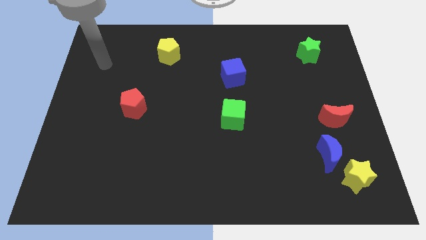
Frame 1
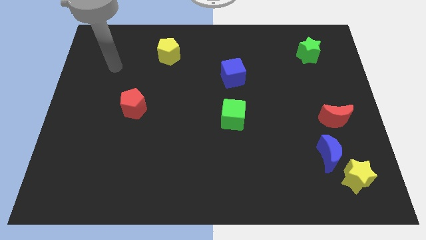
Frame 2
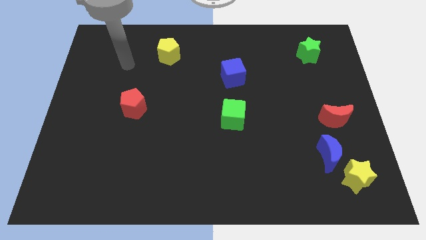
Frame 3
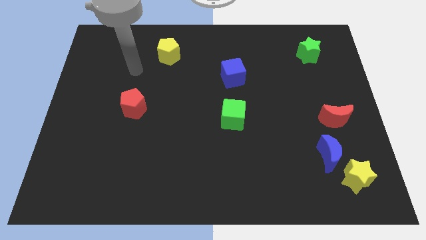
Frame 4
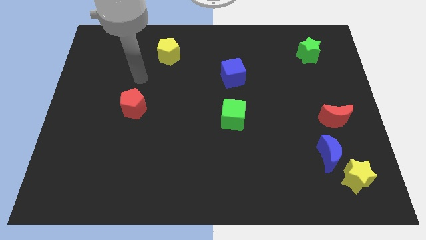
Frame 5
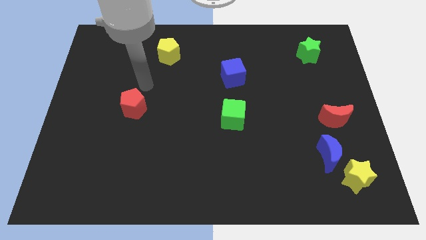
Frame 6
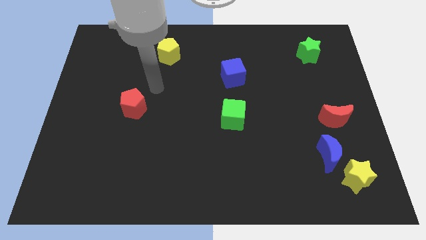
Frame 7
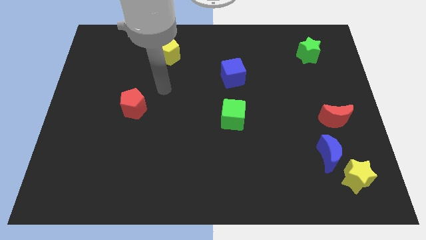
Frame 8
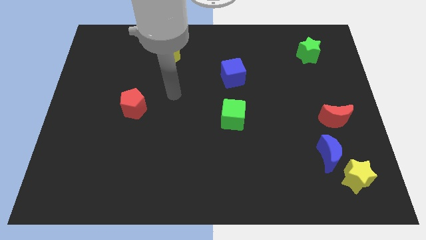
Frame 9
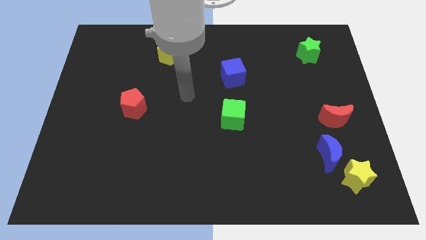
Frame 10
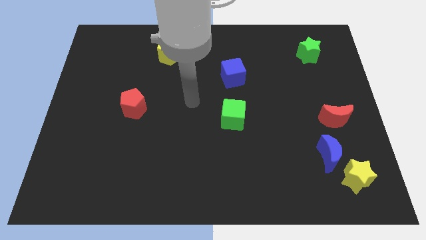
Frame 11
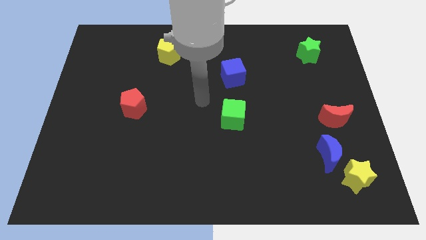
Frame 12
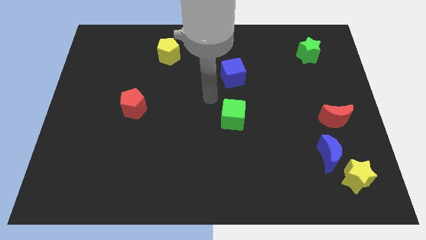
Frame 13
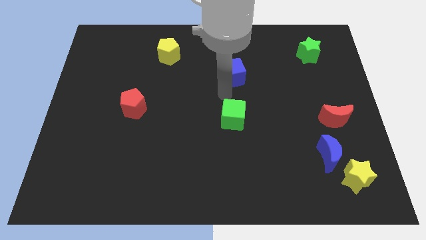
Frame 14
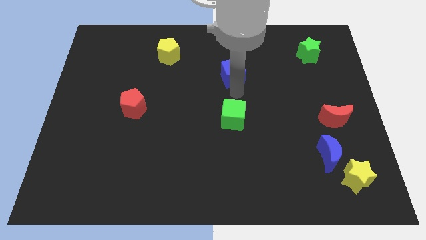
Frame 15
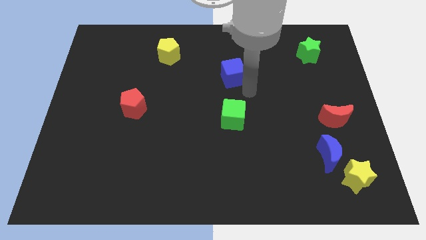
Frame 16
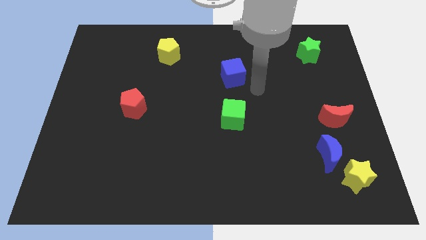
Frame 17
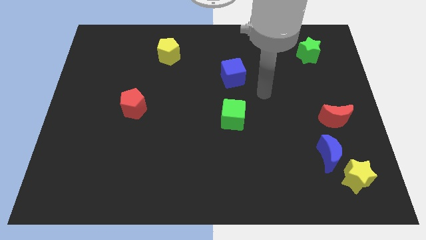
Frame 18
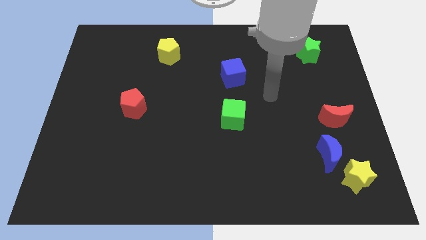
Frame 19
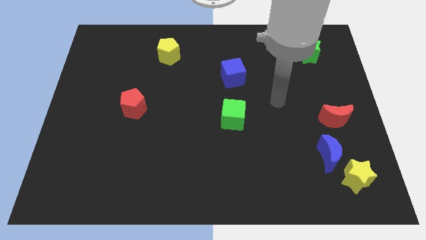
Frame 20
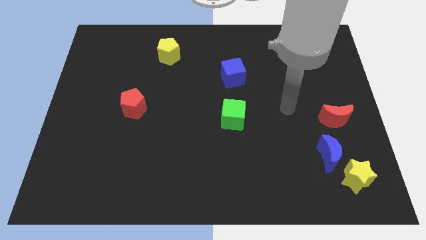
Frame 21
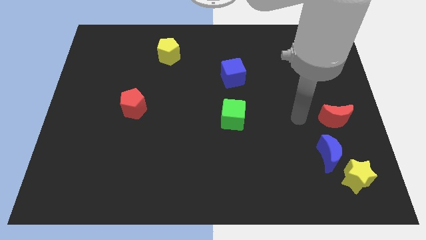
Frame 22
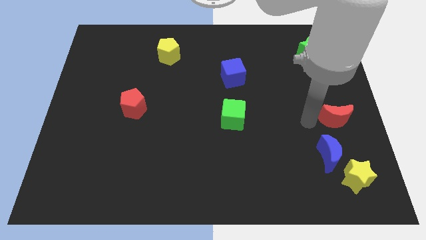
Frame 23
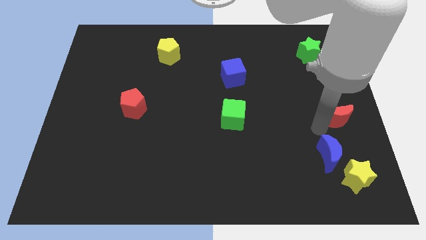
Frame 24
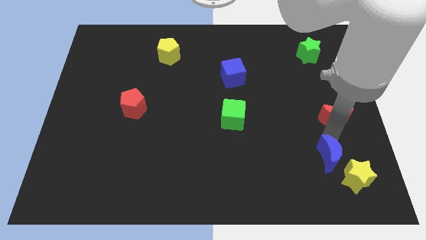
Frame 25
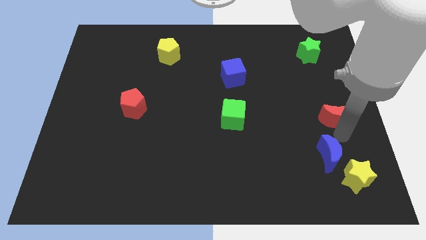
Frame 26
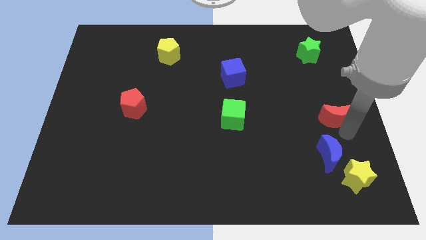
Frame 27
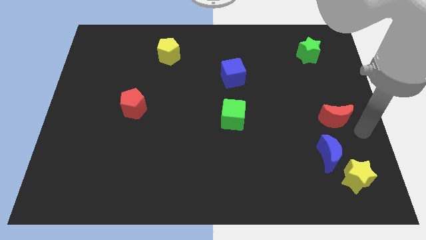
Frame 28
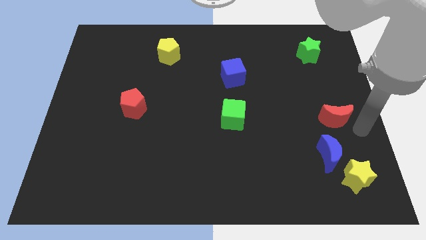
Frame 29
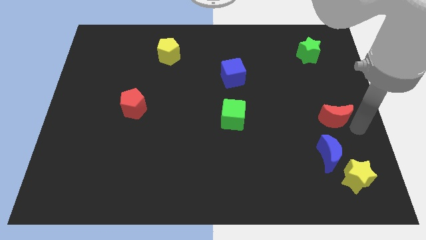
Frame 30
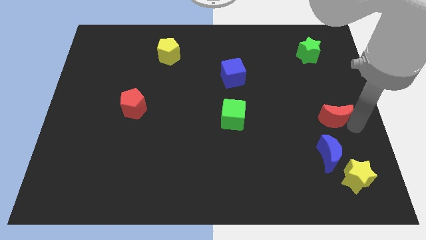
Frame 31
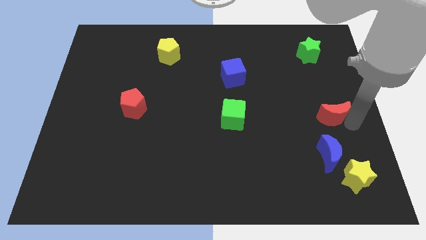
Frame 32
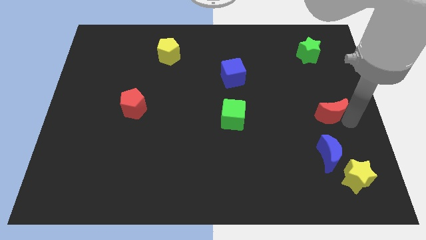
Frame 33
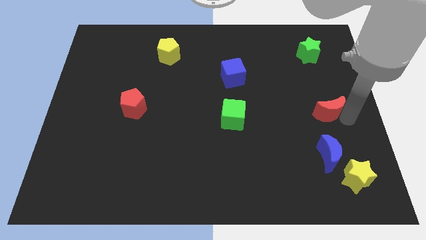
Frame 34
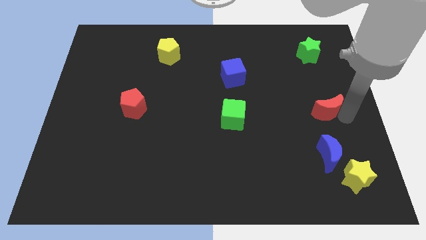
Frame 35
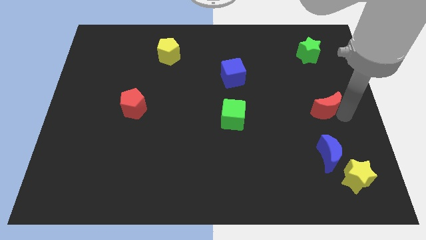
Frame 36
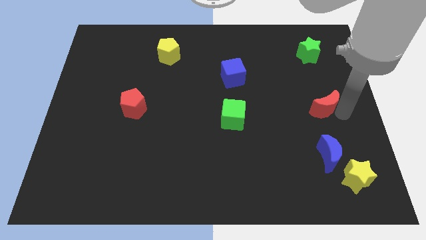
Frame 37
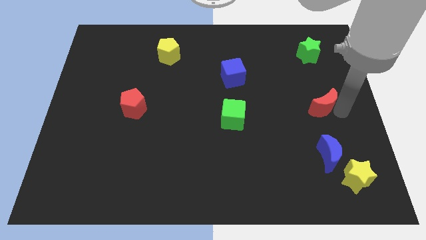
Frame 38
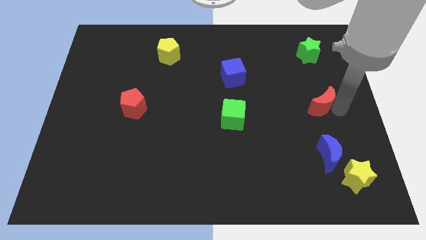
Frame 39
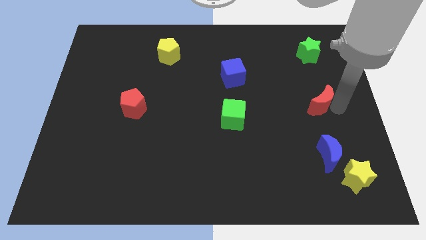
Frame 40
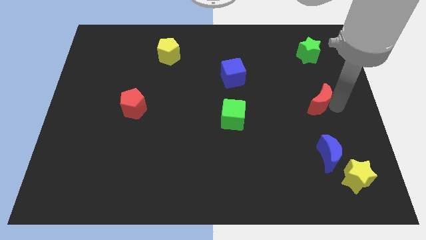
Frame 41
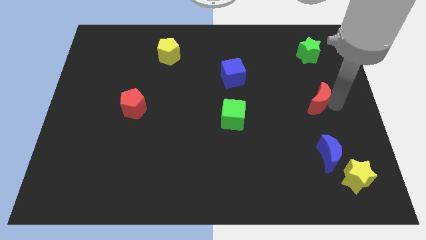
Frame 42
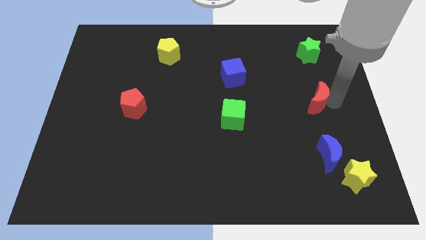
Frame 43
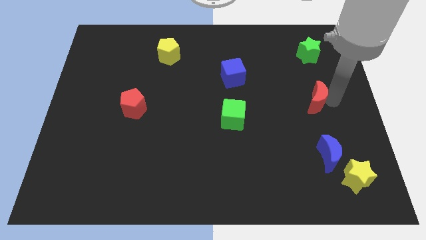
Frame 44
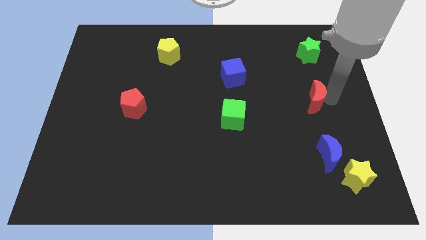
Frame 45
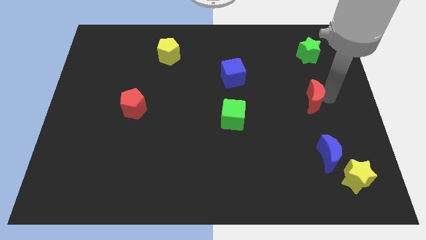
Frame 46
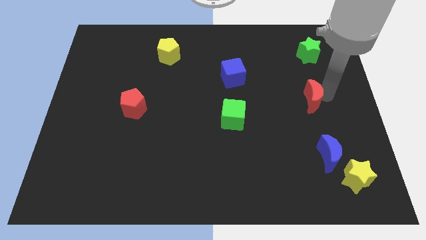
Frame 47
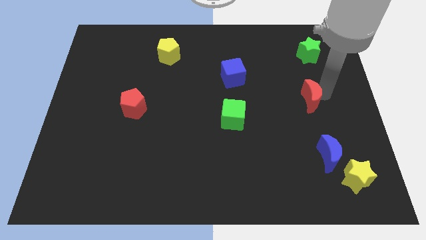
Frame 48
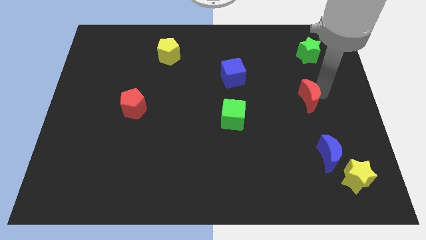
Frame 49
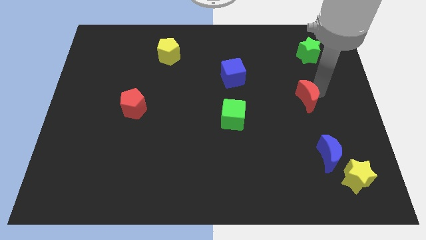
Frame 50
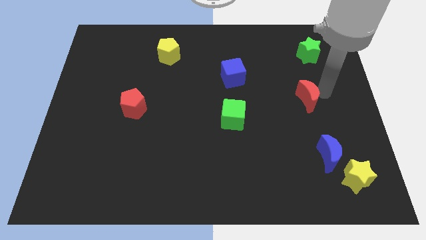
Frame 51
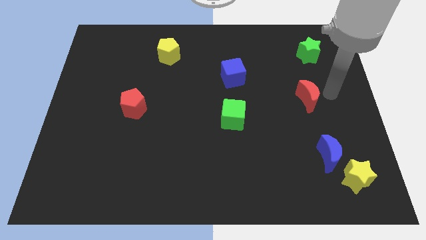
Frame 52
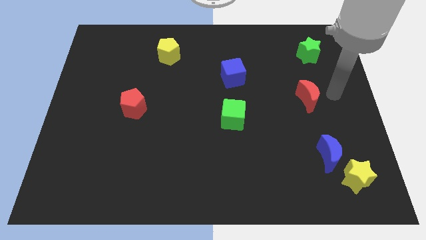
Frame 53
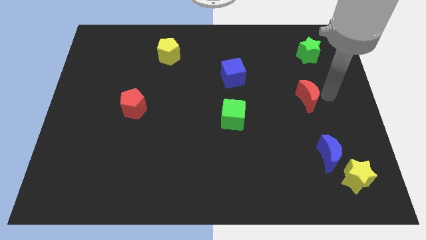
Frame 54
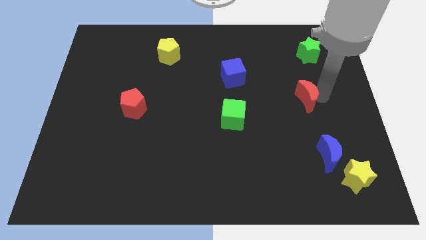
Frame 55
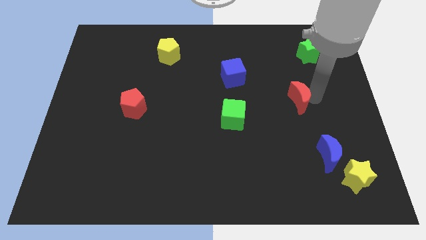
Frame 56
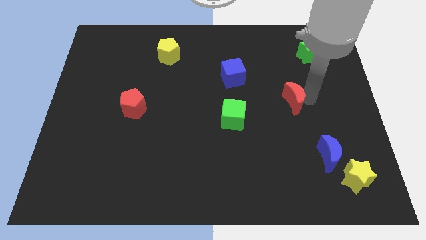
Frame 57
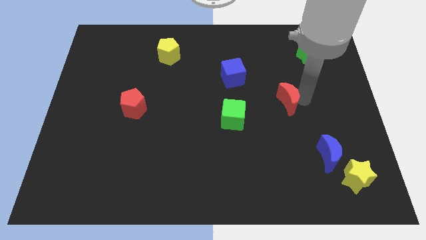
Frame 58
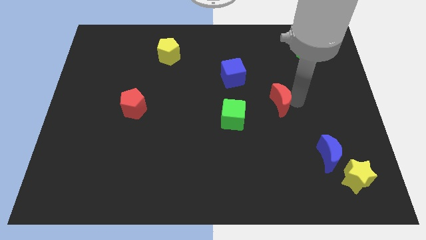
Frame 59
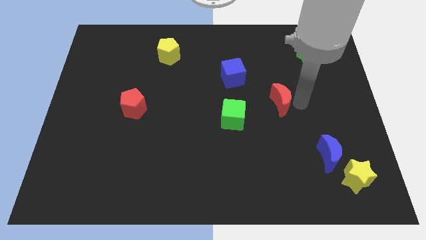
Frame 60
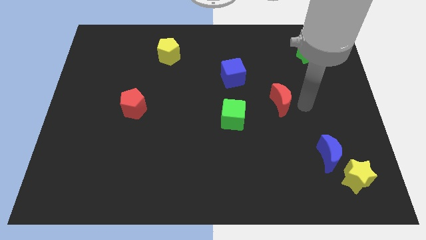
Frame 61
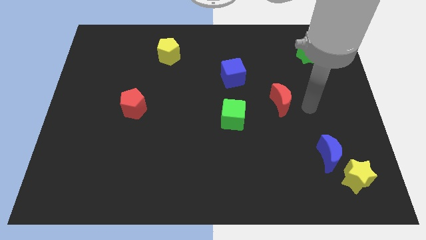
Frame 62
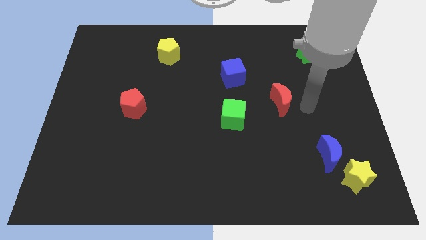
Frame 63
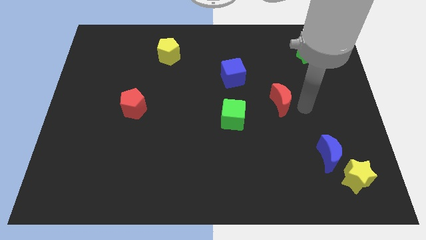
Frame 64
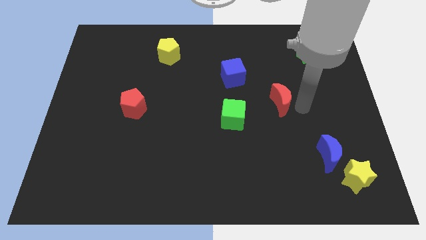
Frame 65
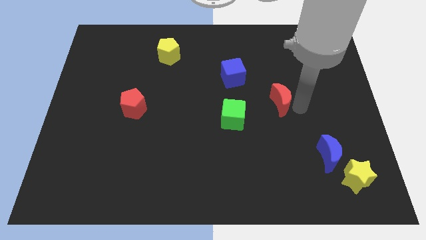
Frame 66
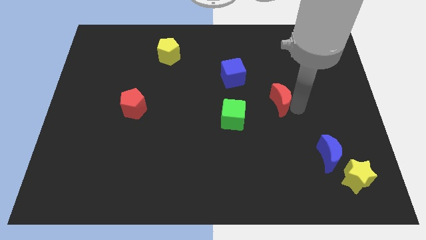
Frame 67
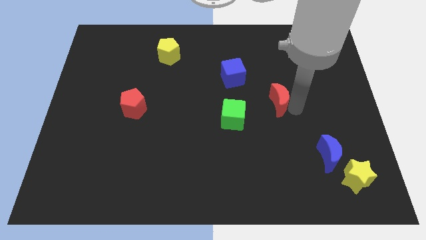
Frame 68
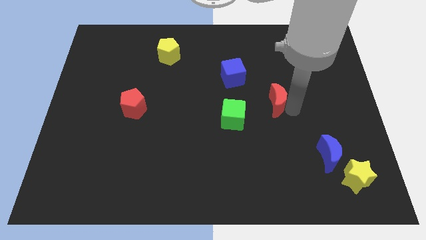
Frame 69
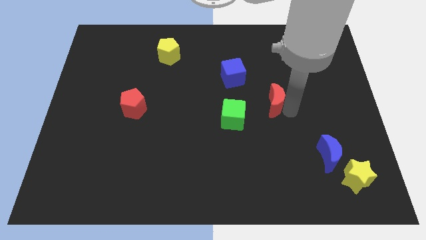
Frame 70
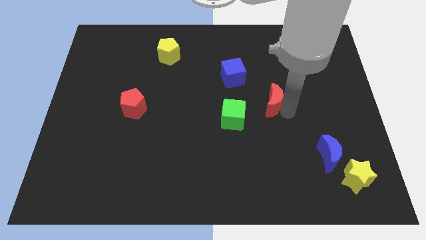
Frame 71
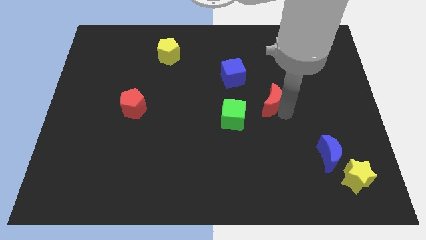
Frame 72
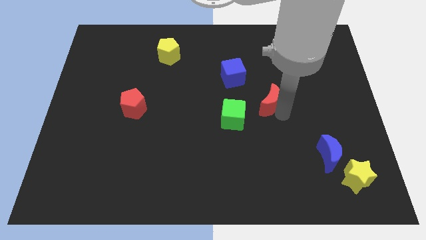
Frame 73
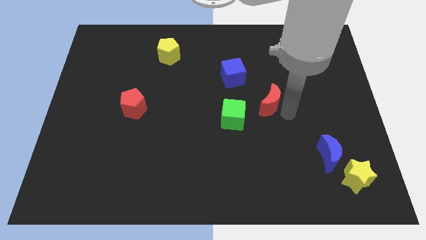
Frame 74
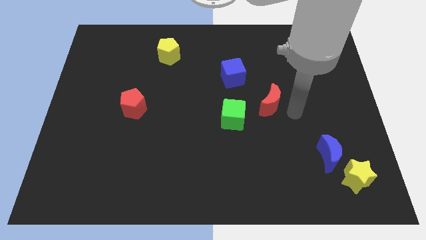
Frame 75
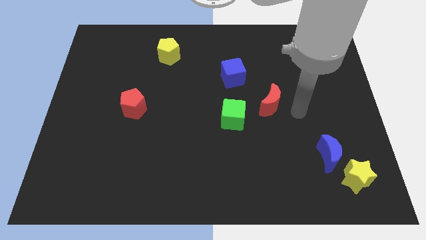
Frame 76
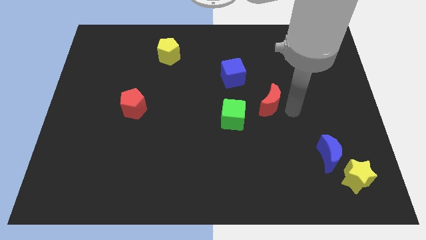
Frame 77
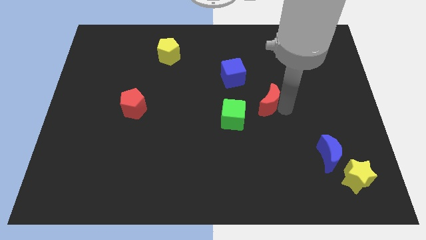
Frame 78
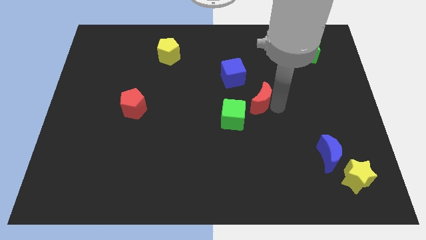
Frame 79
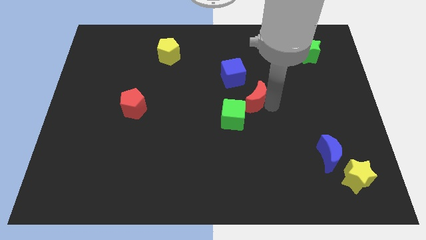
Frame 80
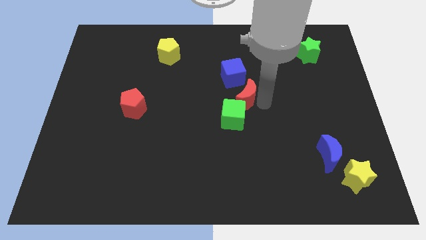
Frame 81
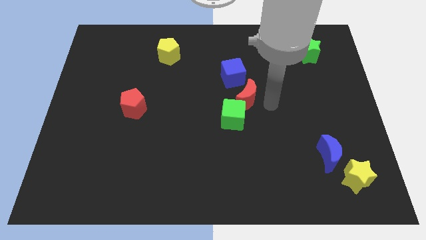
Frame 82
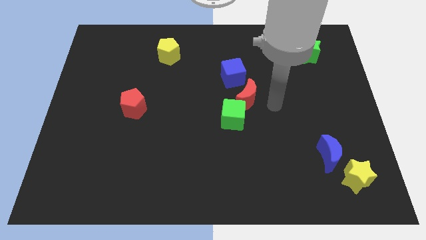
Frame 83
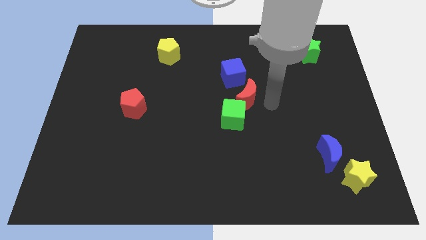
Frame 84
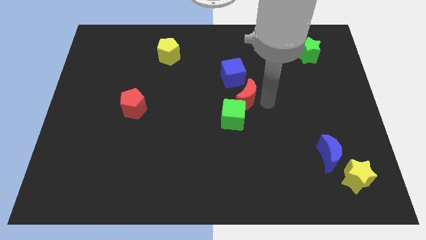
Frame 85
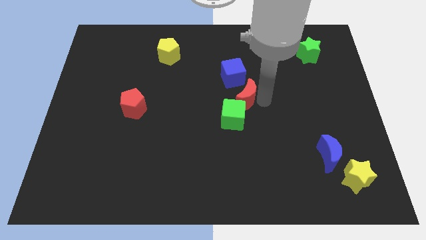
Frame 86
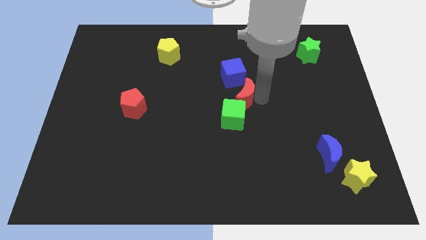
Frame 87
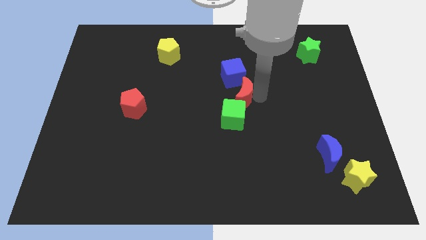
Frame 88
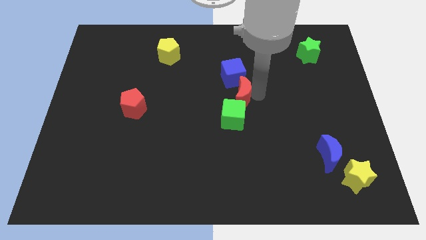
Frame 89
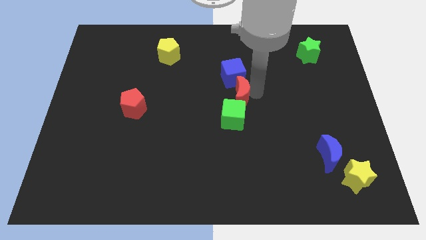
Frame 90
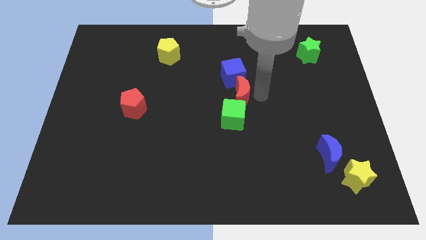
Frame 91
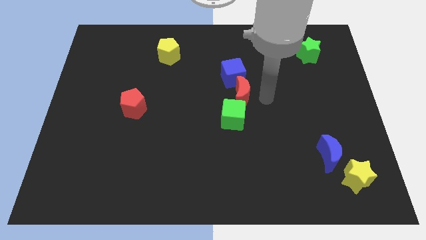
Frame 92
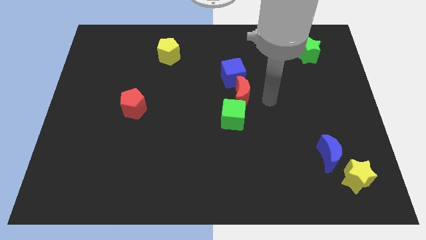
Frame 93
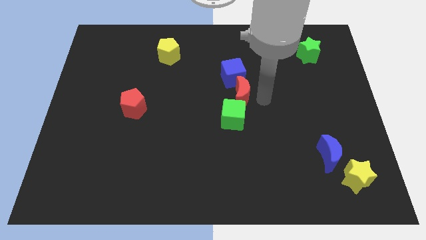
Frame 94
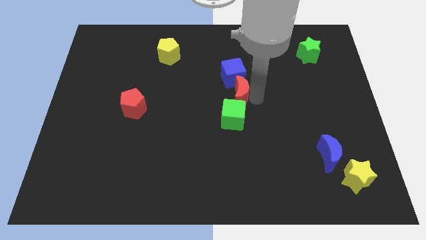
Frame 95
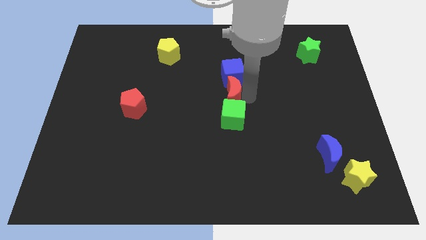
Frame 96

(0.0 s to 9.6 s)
push the red moon to the bottom left side of the blue cube
